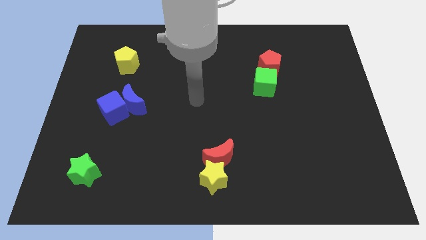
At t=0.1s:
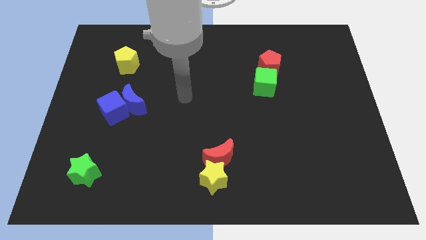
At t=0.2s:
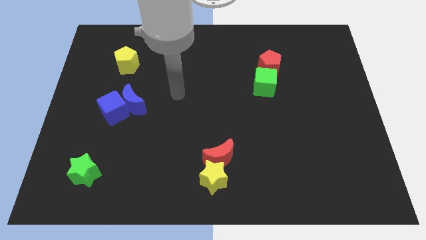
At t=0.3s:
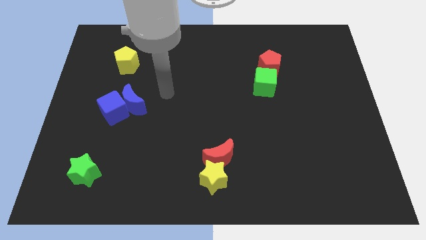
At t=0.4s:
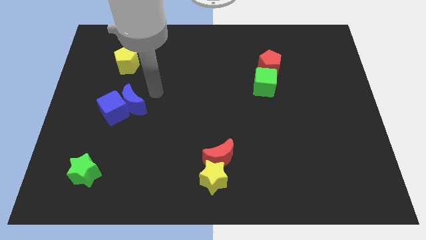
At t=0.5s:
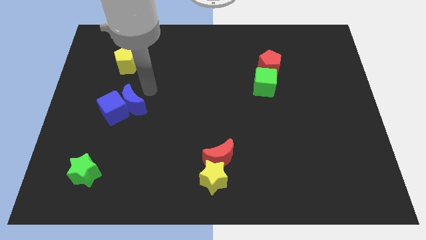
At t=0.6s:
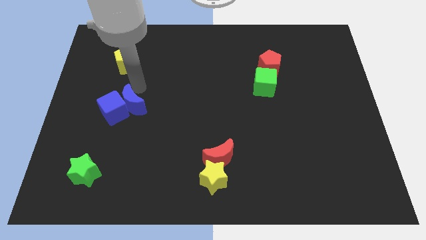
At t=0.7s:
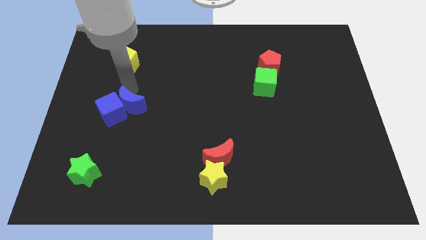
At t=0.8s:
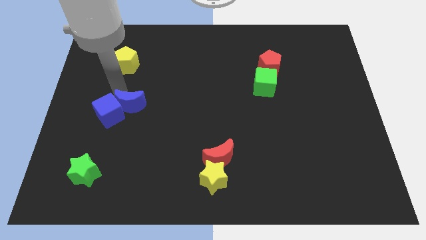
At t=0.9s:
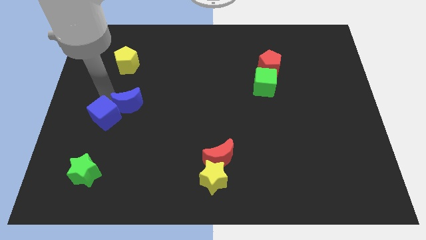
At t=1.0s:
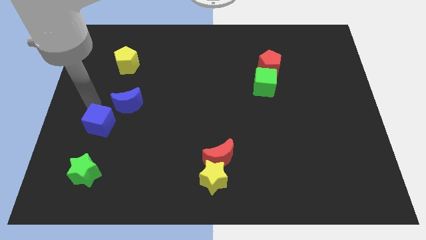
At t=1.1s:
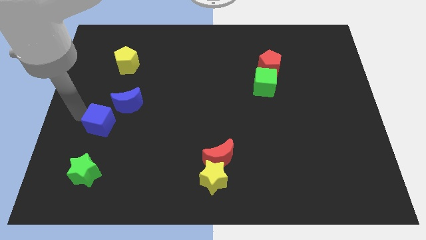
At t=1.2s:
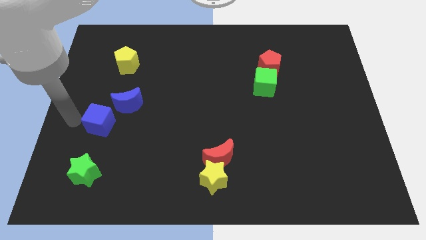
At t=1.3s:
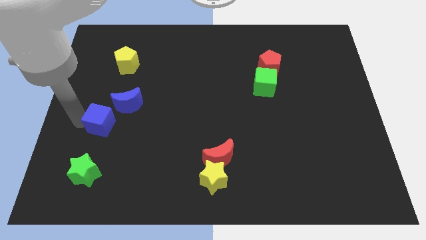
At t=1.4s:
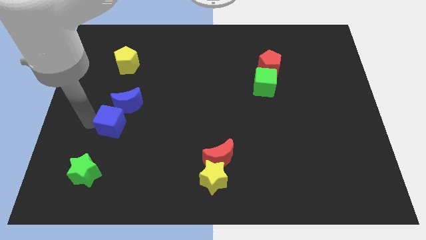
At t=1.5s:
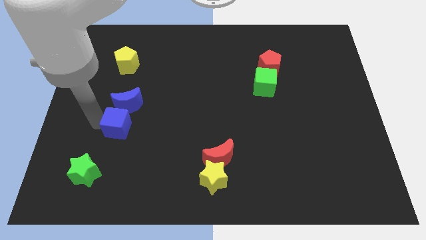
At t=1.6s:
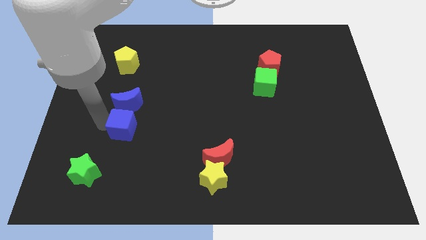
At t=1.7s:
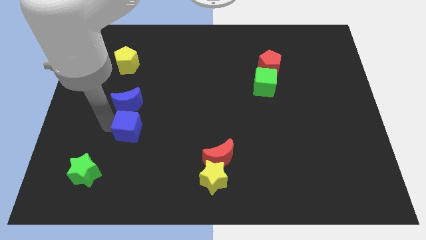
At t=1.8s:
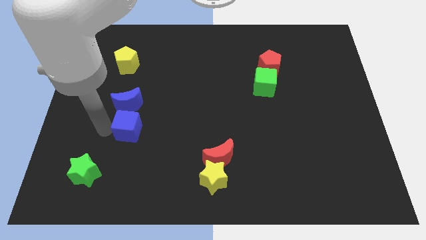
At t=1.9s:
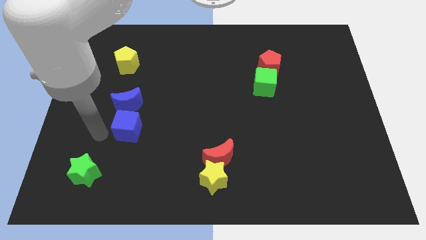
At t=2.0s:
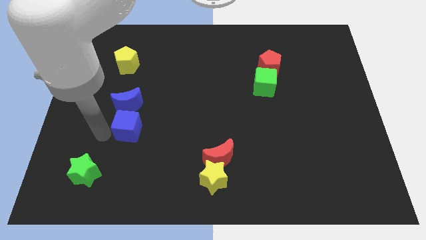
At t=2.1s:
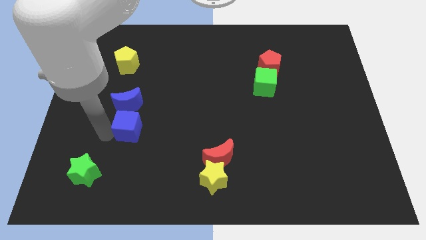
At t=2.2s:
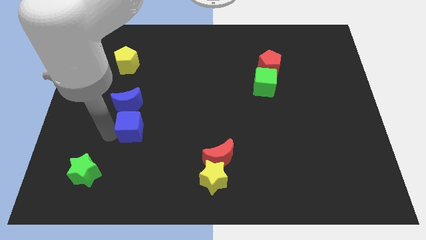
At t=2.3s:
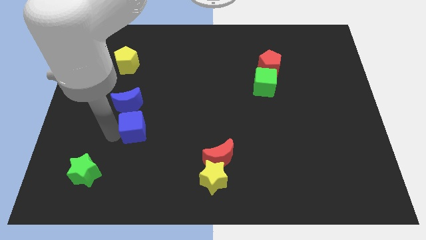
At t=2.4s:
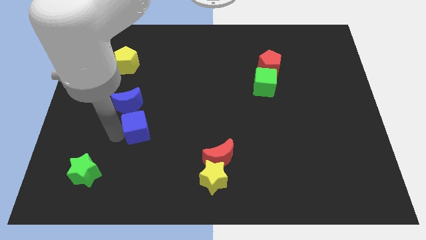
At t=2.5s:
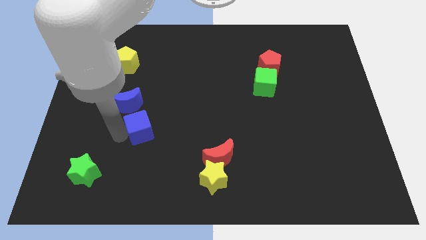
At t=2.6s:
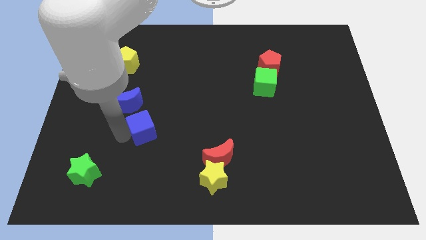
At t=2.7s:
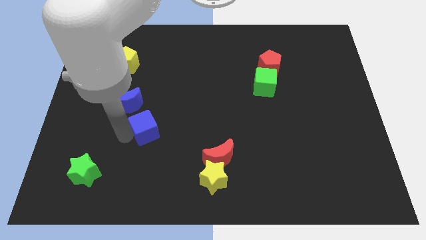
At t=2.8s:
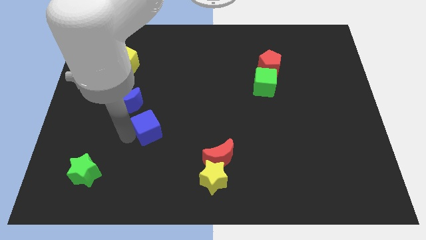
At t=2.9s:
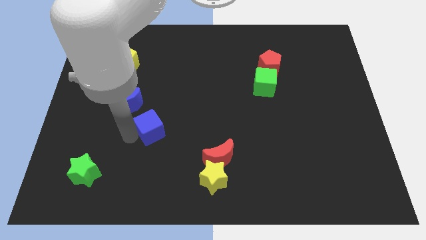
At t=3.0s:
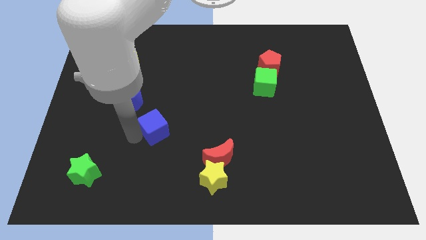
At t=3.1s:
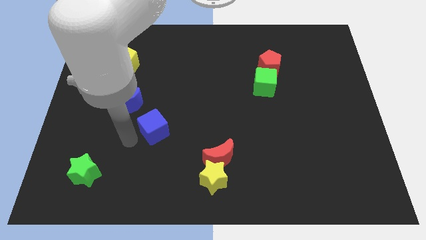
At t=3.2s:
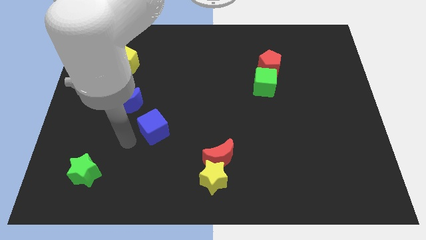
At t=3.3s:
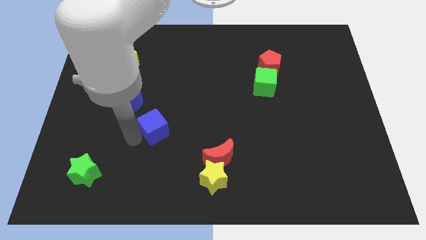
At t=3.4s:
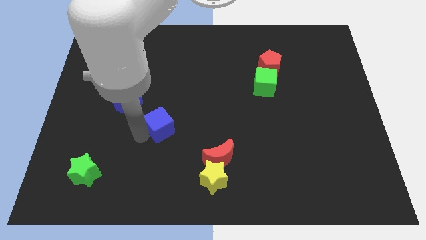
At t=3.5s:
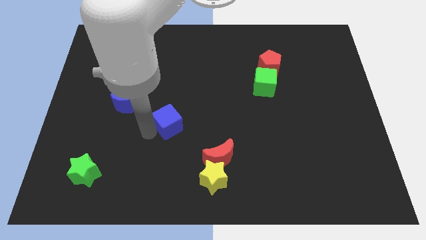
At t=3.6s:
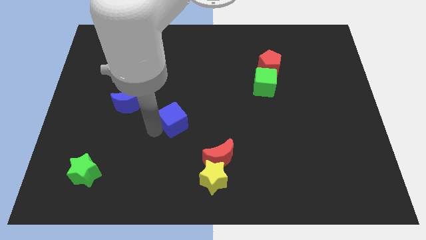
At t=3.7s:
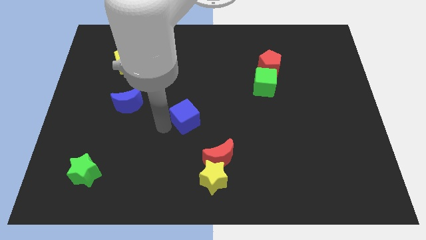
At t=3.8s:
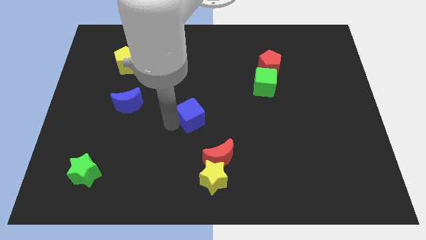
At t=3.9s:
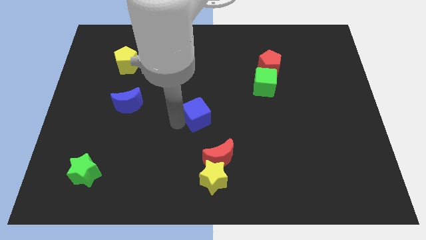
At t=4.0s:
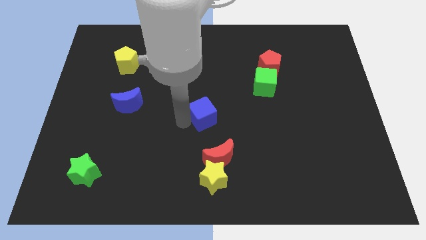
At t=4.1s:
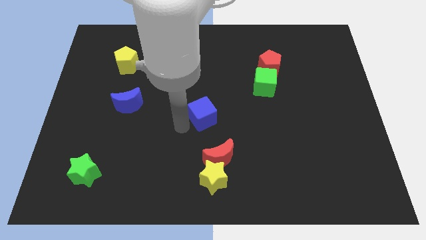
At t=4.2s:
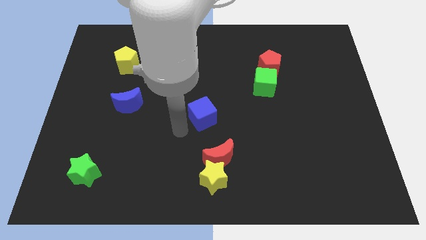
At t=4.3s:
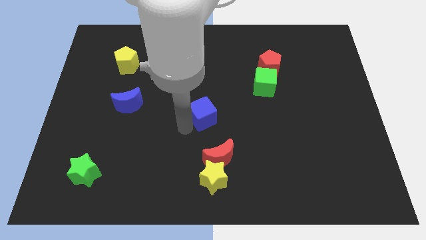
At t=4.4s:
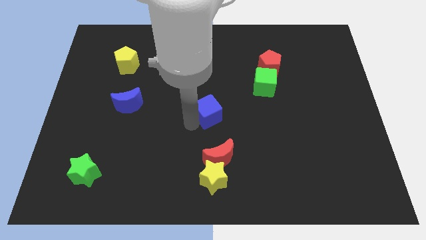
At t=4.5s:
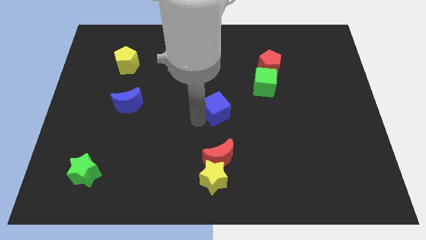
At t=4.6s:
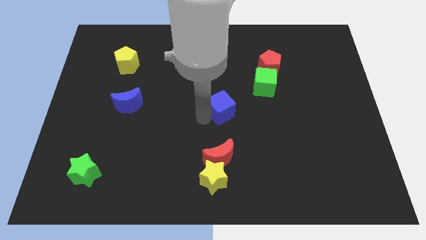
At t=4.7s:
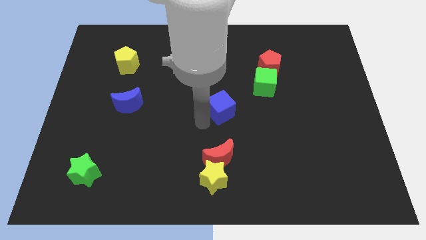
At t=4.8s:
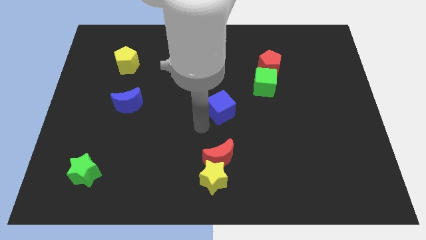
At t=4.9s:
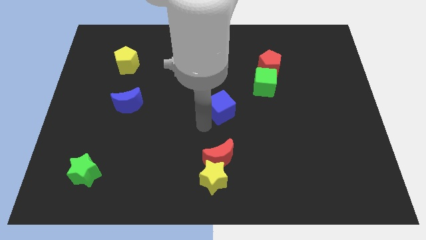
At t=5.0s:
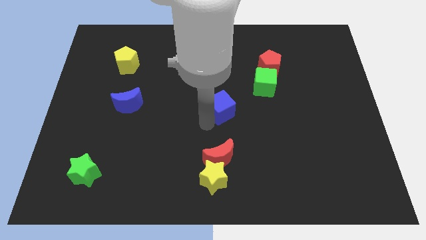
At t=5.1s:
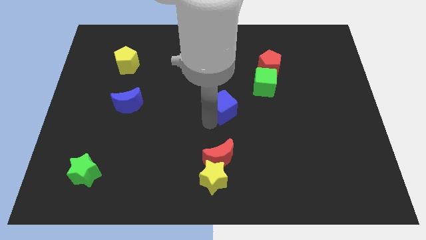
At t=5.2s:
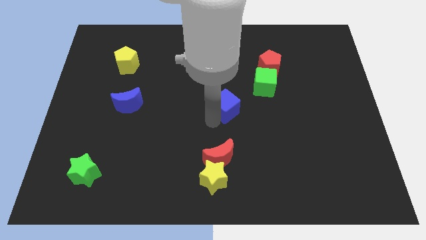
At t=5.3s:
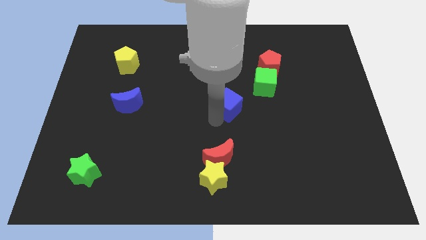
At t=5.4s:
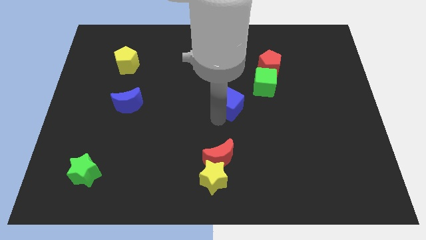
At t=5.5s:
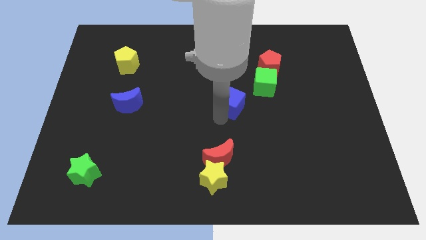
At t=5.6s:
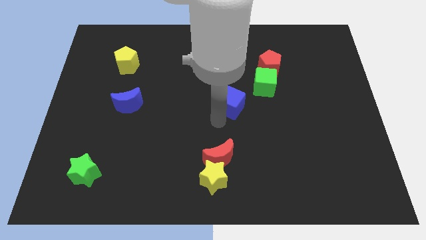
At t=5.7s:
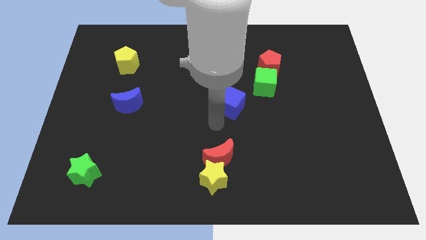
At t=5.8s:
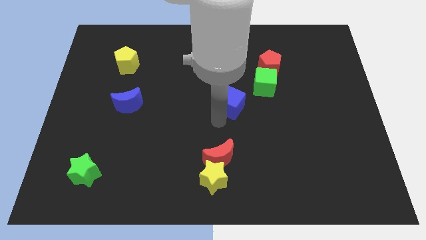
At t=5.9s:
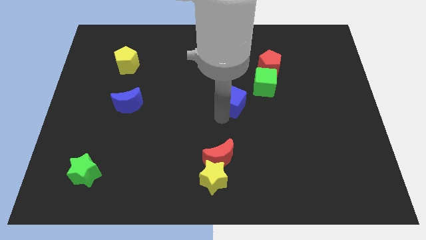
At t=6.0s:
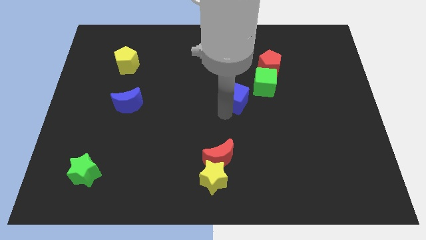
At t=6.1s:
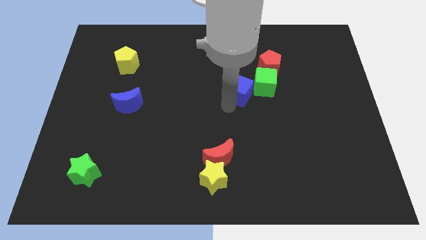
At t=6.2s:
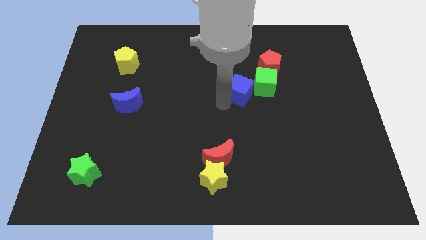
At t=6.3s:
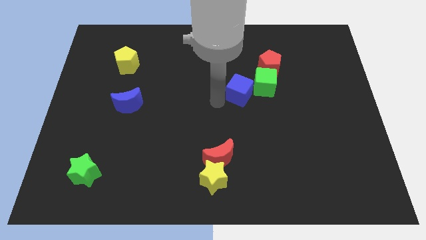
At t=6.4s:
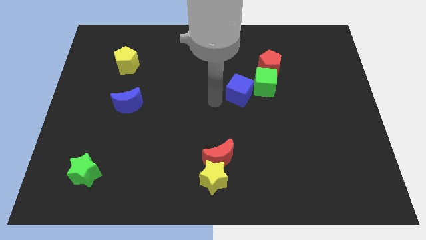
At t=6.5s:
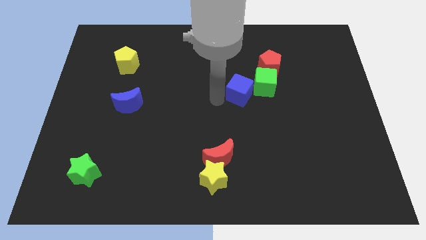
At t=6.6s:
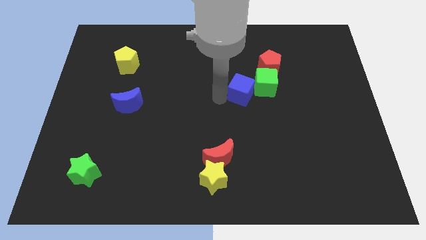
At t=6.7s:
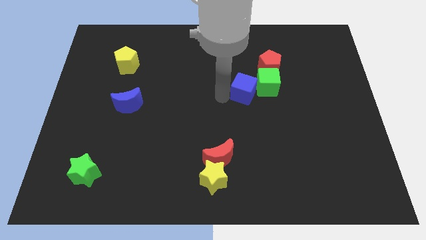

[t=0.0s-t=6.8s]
slide the blue cube to the green cube
